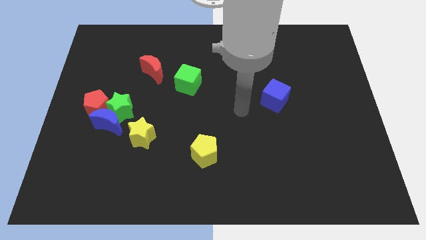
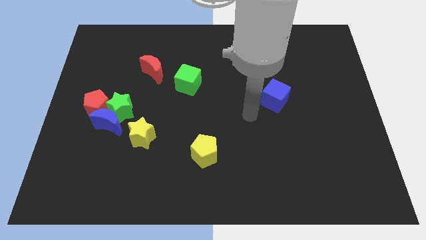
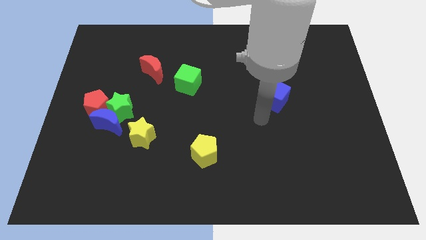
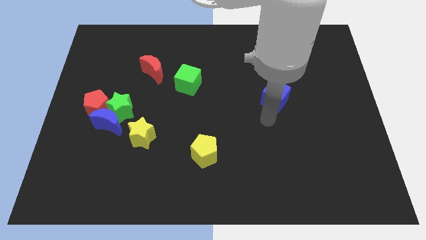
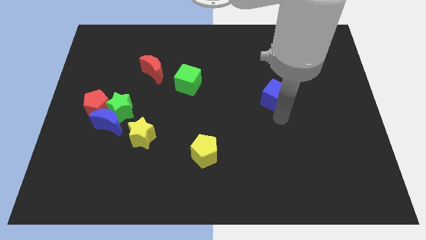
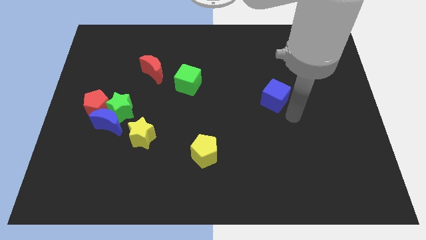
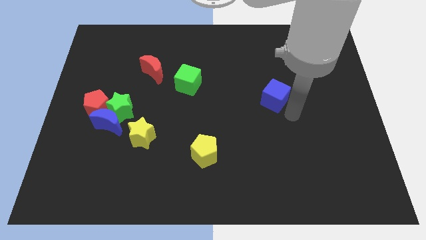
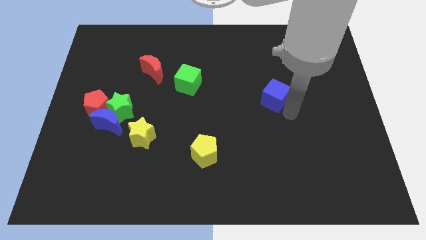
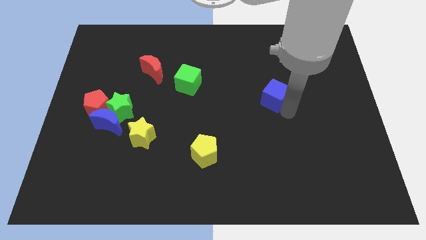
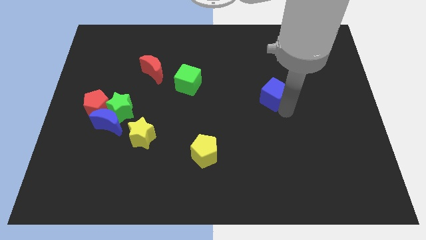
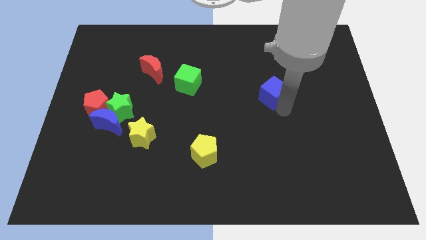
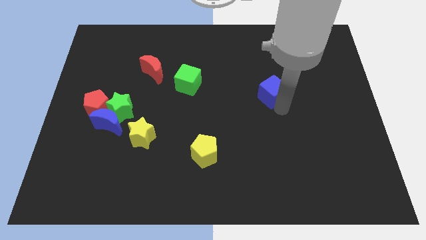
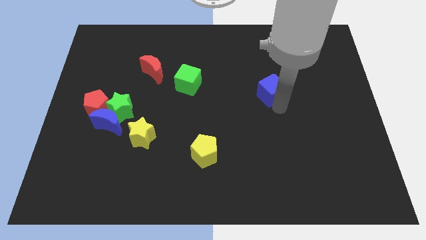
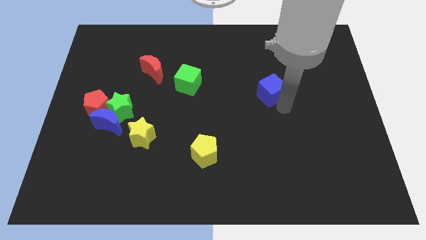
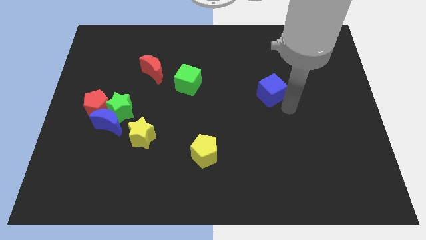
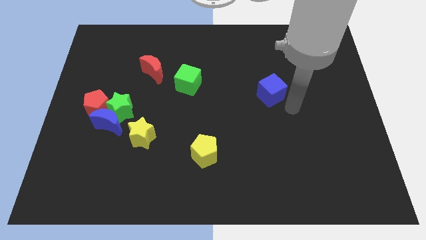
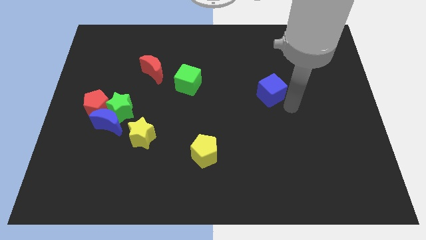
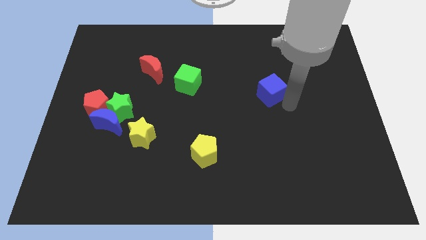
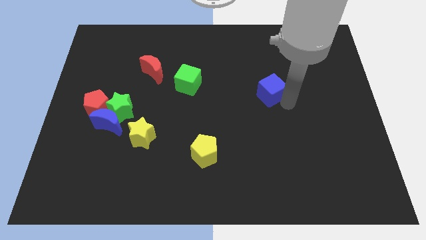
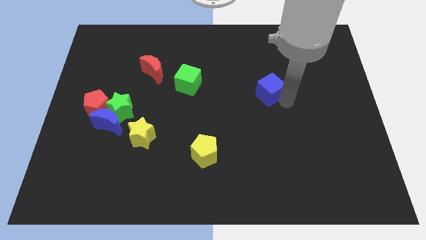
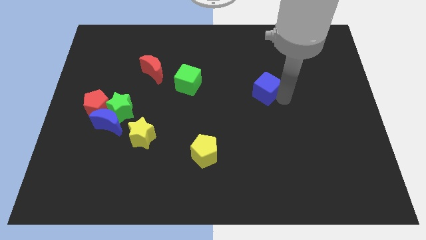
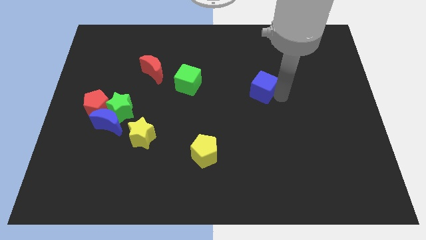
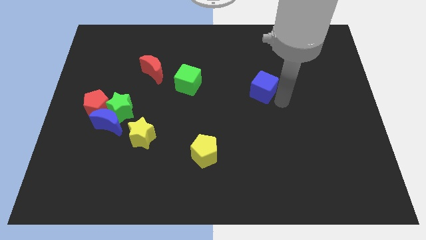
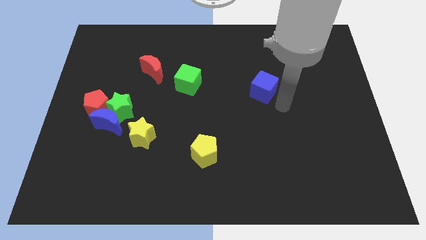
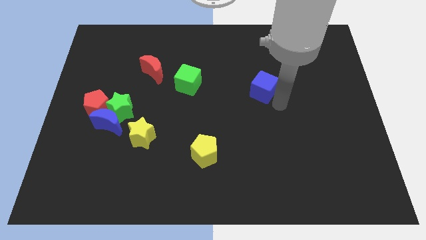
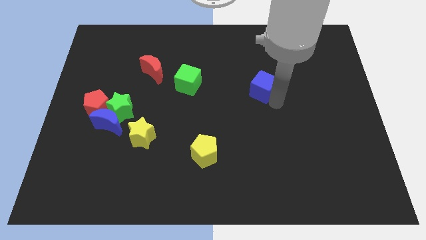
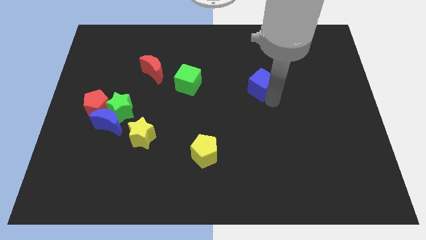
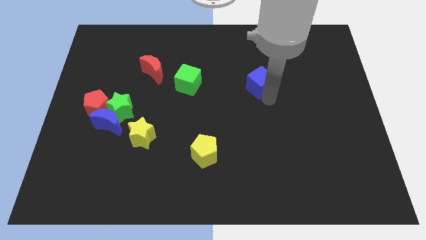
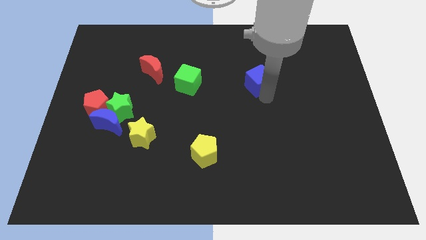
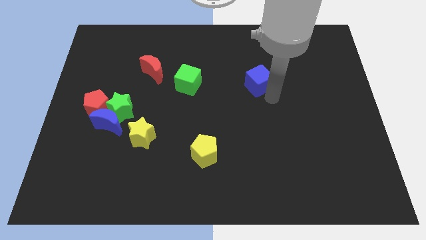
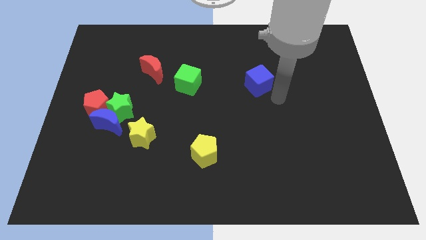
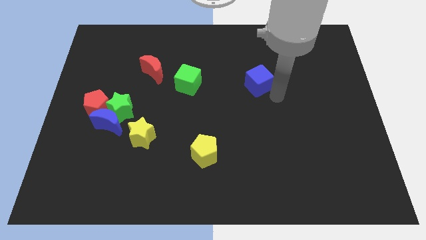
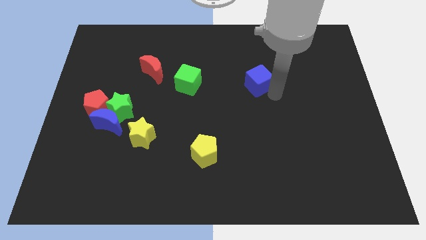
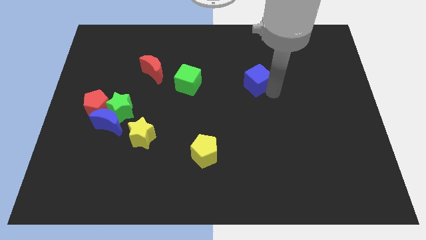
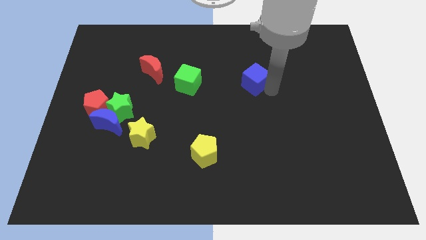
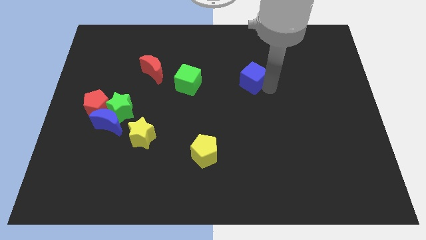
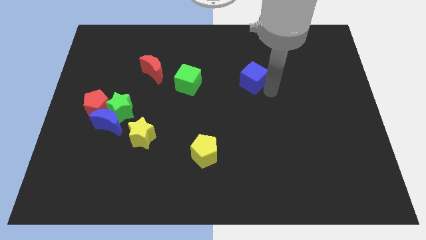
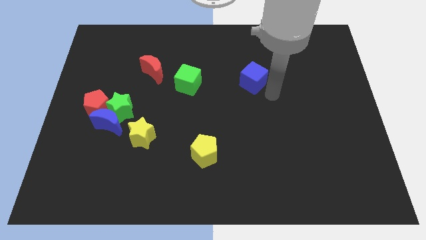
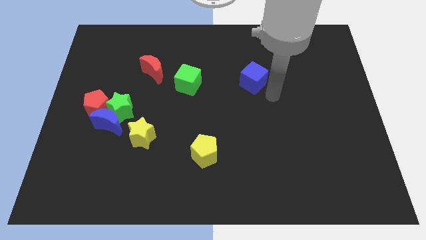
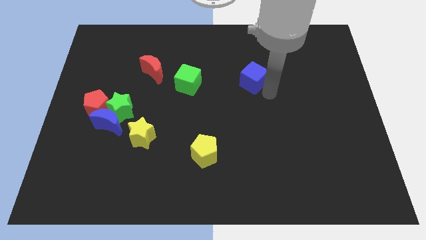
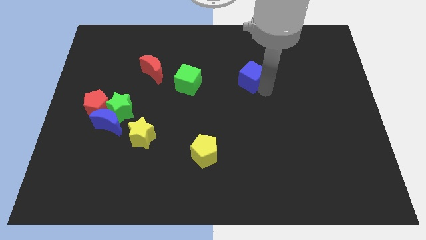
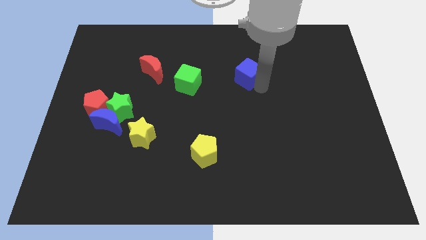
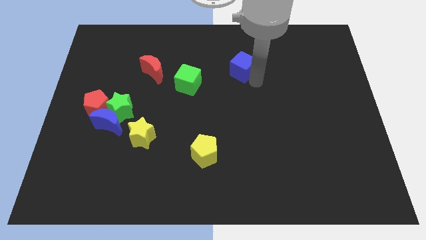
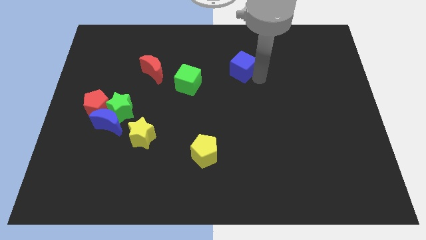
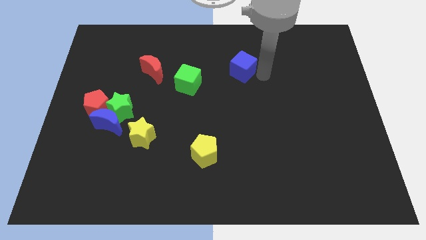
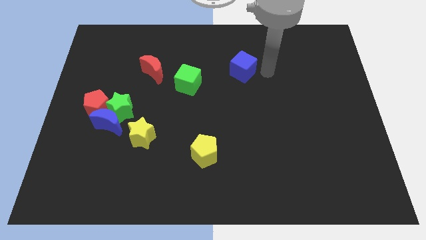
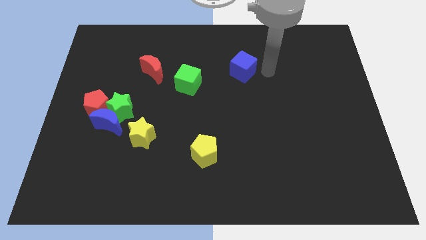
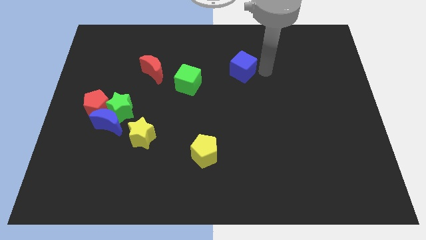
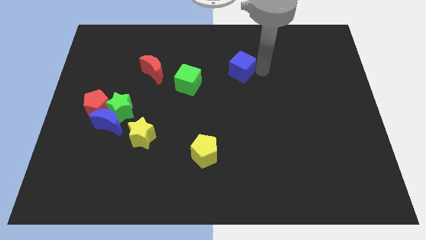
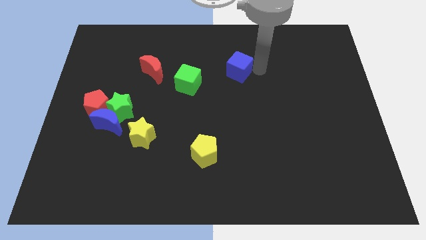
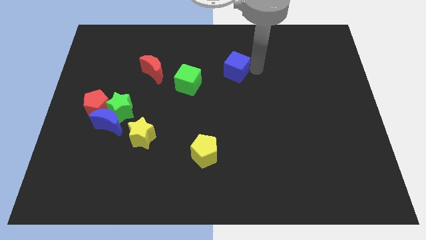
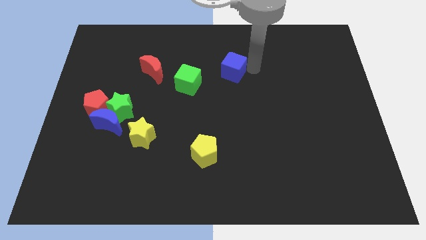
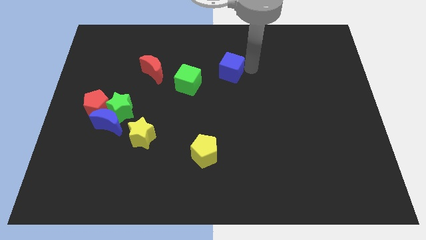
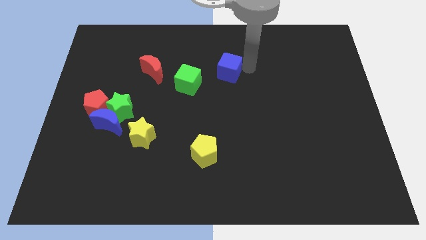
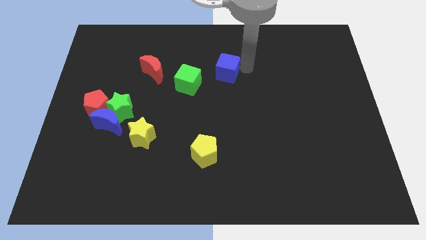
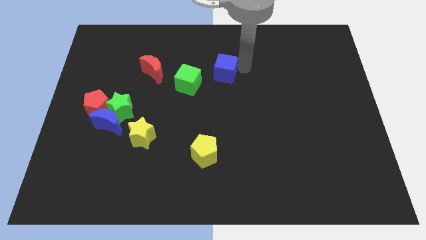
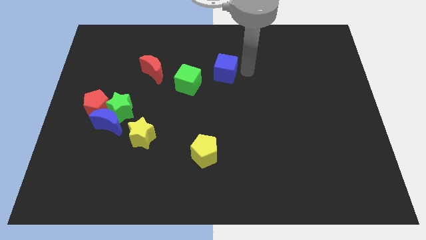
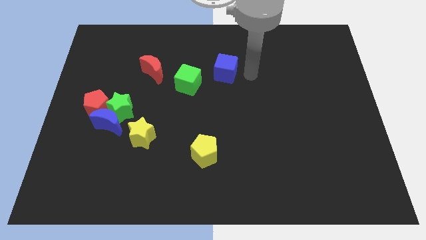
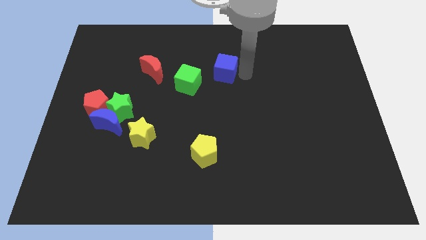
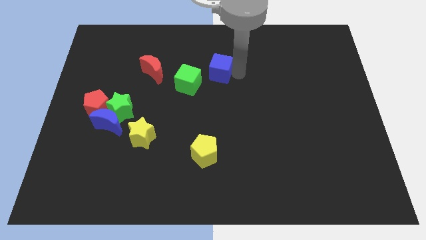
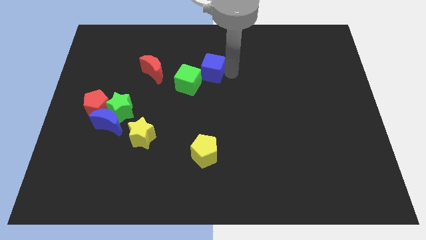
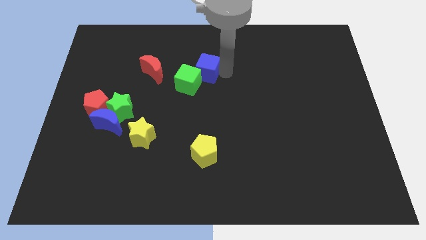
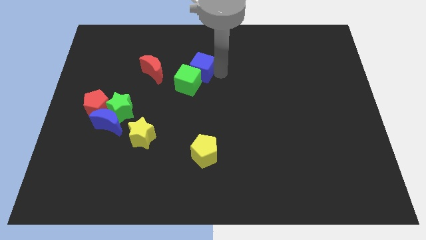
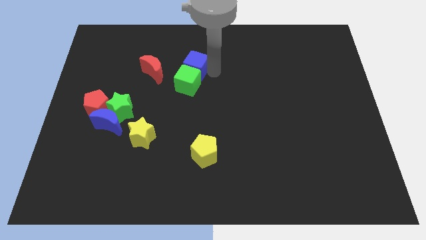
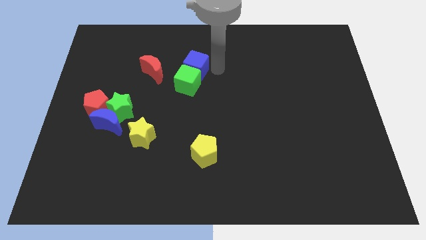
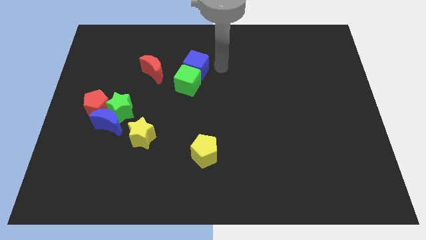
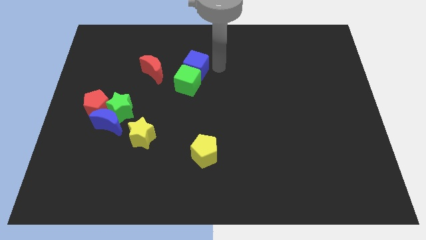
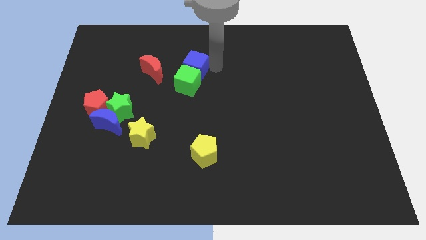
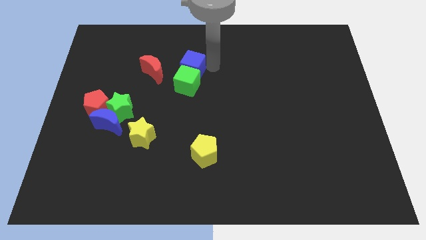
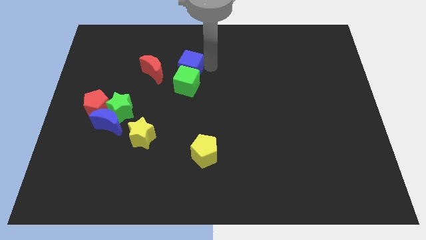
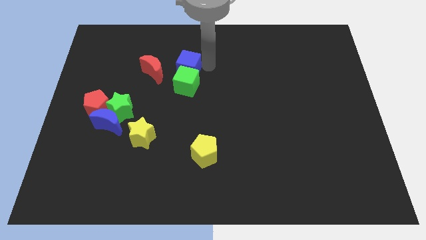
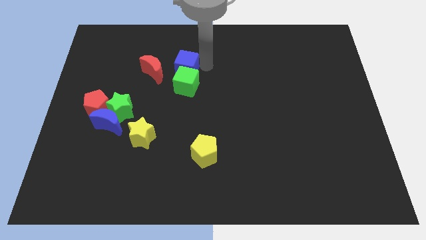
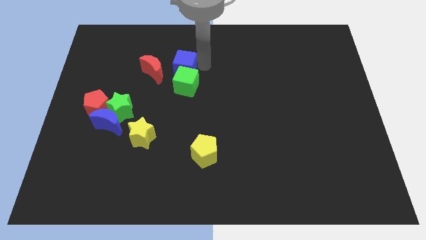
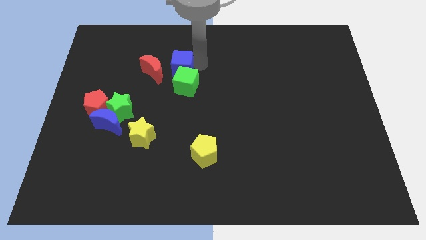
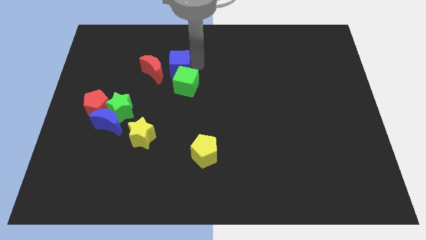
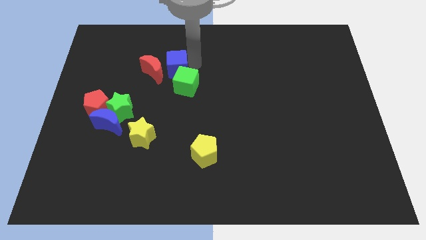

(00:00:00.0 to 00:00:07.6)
move the blue cube close to the red moon
